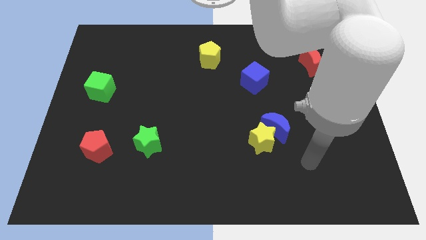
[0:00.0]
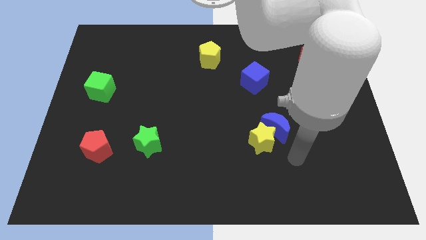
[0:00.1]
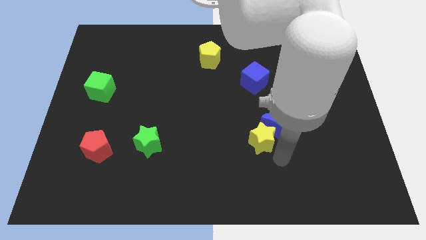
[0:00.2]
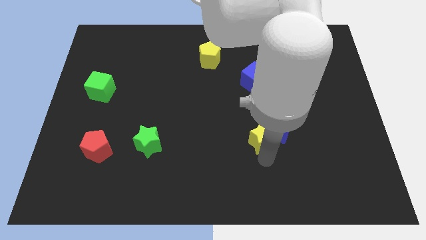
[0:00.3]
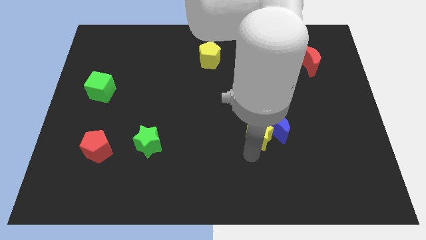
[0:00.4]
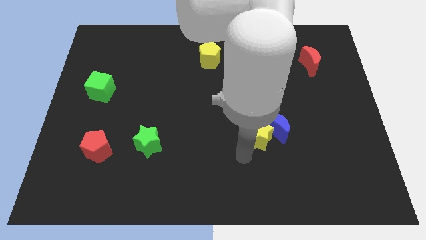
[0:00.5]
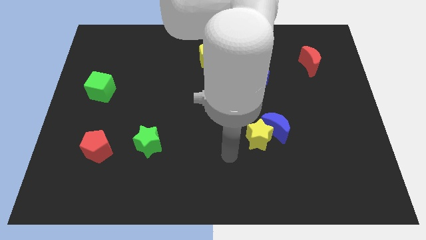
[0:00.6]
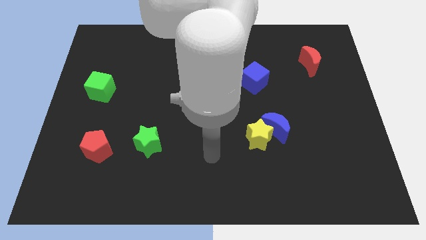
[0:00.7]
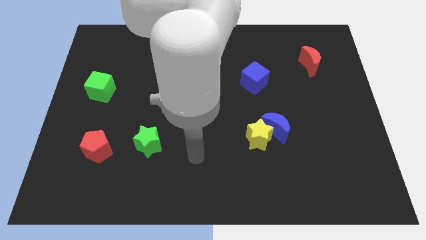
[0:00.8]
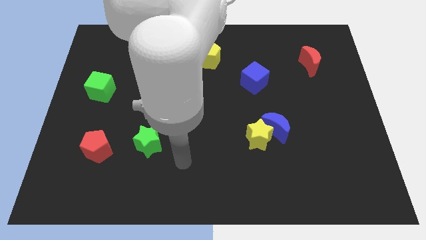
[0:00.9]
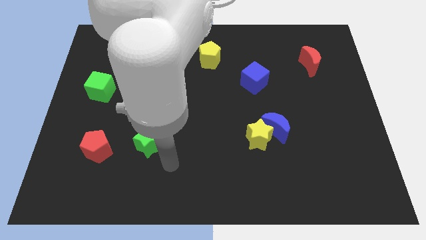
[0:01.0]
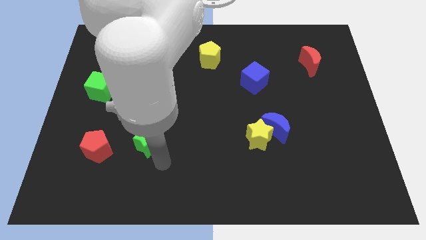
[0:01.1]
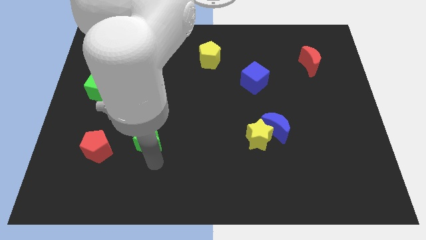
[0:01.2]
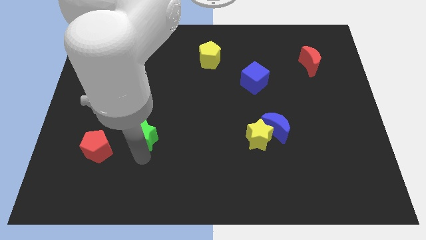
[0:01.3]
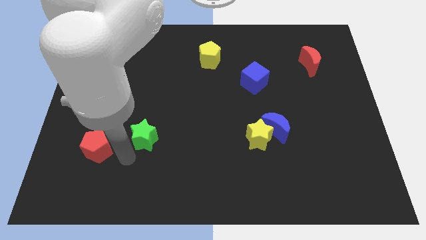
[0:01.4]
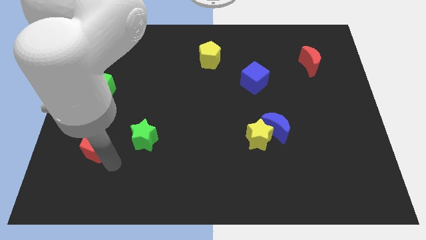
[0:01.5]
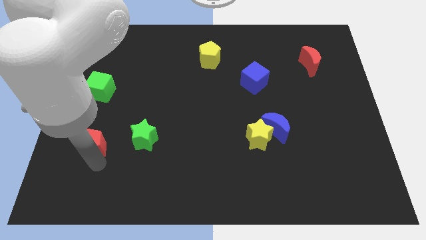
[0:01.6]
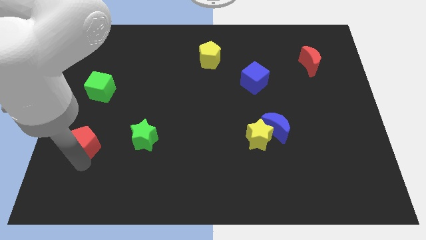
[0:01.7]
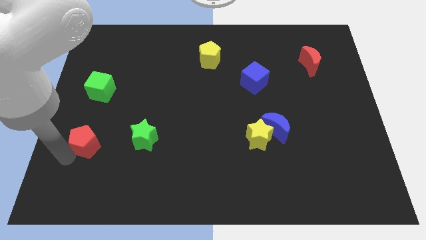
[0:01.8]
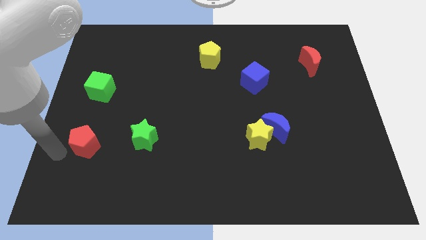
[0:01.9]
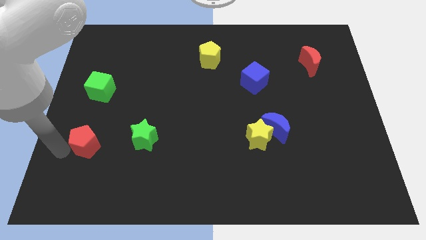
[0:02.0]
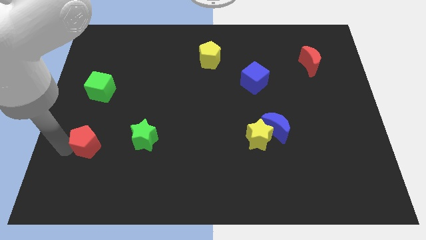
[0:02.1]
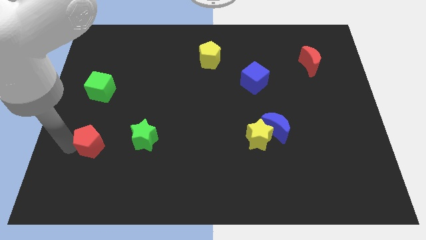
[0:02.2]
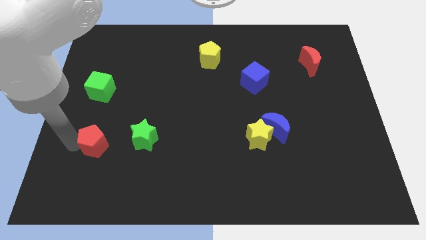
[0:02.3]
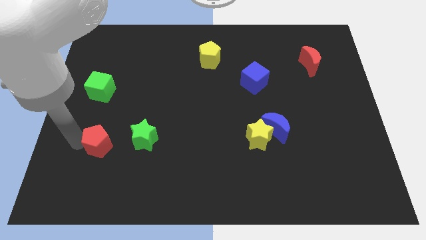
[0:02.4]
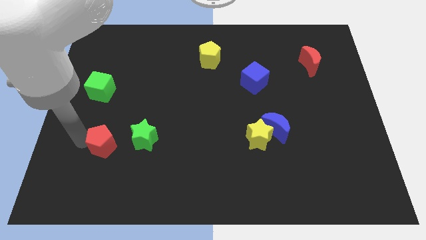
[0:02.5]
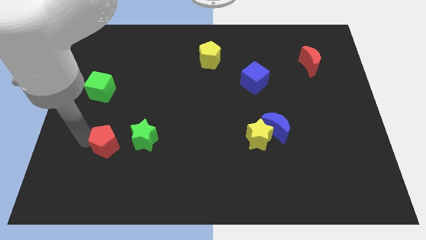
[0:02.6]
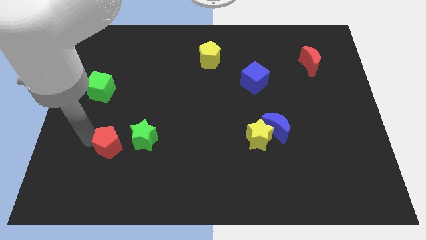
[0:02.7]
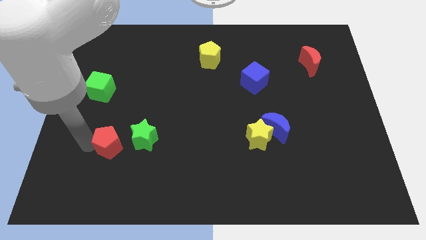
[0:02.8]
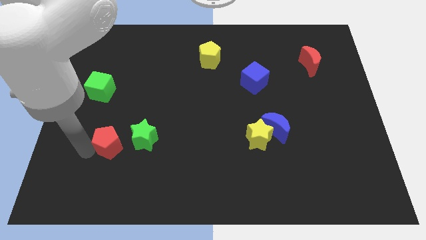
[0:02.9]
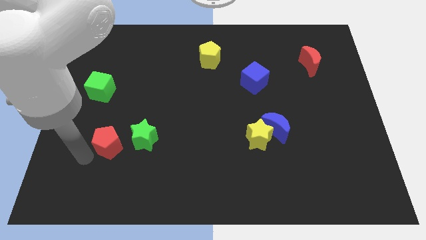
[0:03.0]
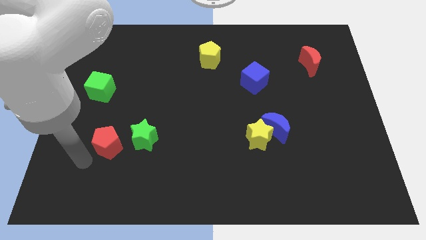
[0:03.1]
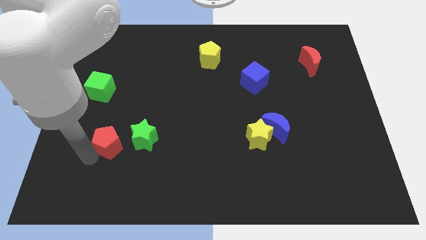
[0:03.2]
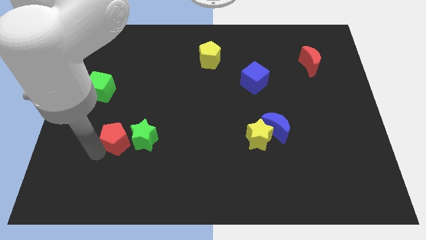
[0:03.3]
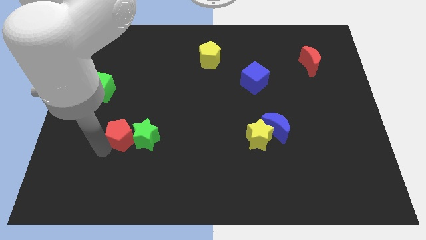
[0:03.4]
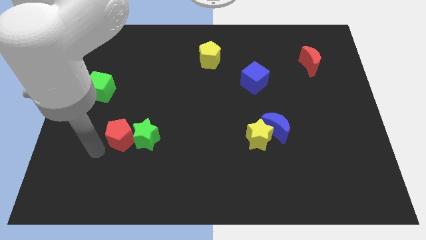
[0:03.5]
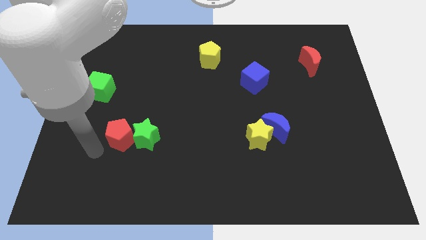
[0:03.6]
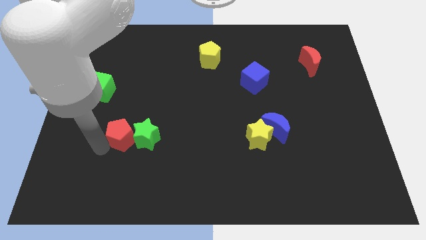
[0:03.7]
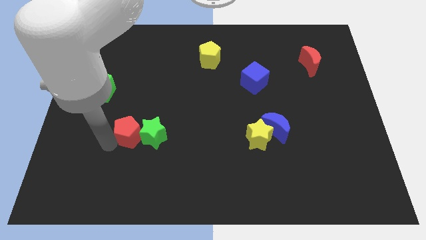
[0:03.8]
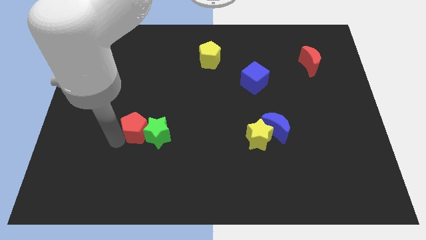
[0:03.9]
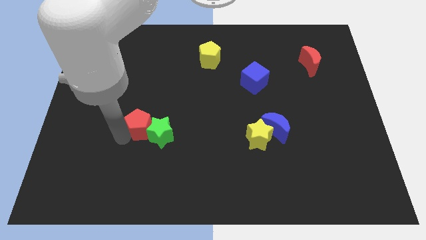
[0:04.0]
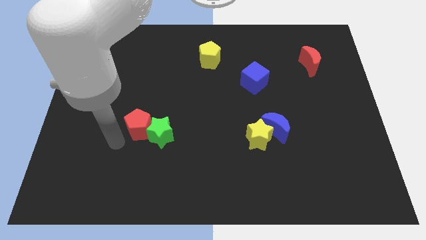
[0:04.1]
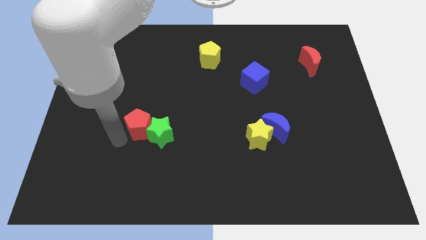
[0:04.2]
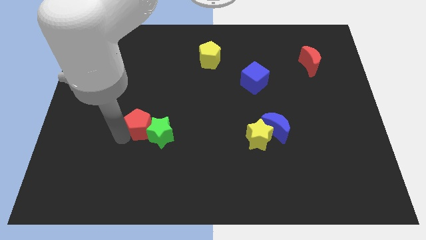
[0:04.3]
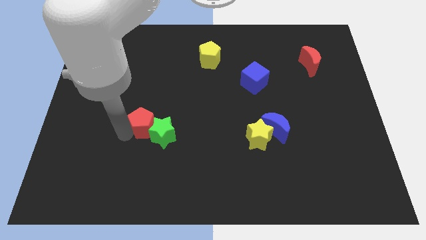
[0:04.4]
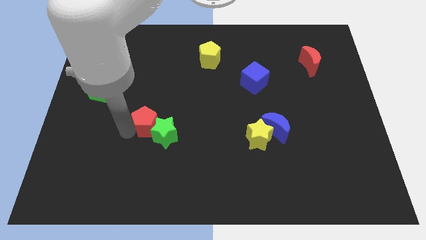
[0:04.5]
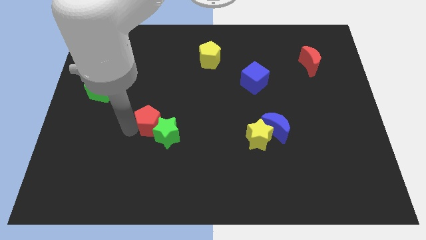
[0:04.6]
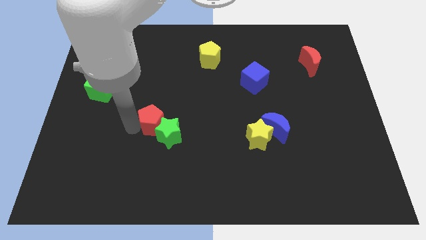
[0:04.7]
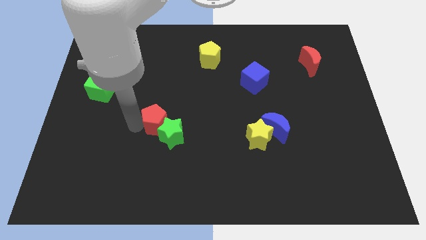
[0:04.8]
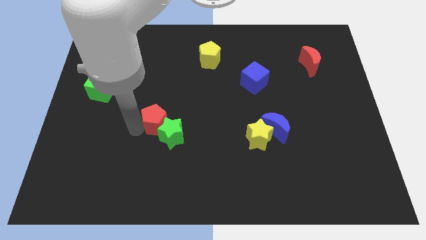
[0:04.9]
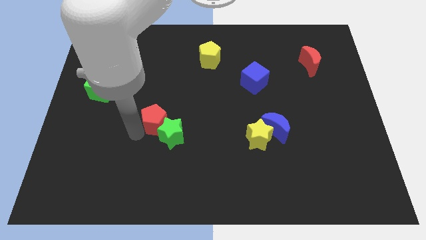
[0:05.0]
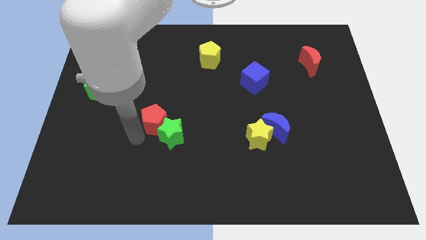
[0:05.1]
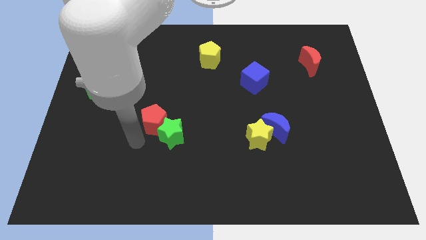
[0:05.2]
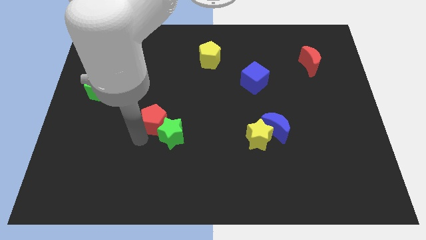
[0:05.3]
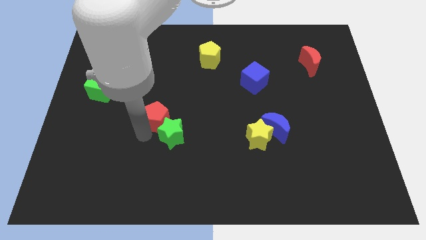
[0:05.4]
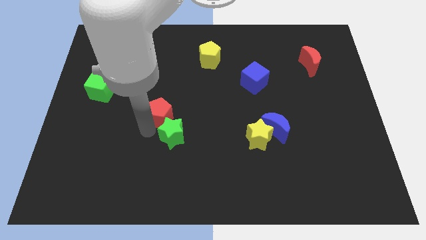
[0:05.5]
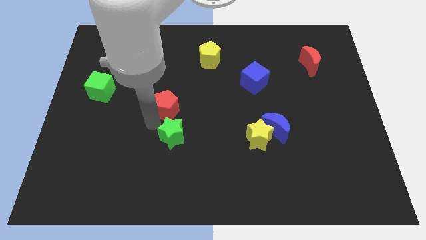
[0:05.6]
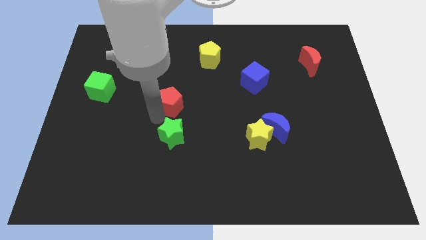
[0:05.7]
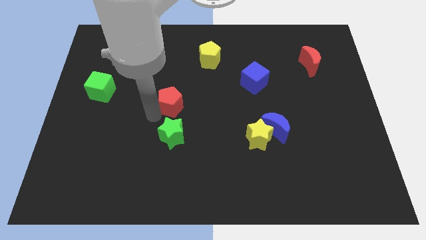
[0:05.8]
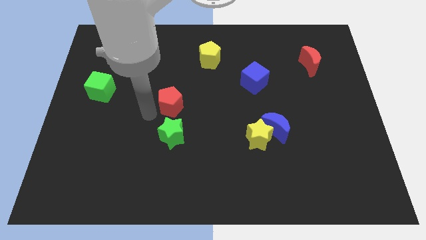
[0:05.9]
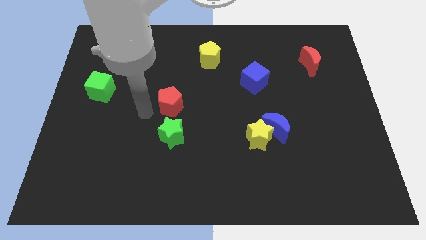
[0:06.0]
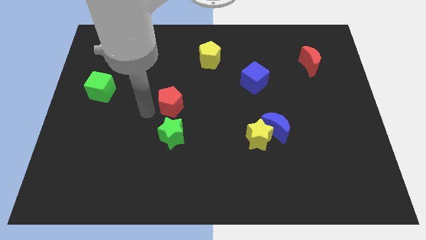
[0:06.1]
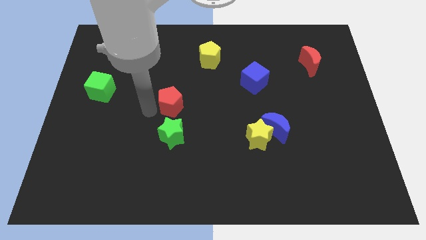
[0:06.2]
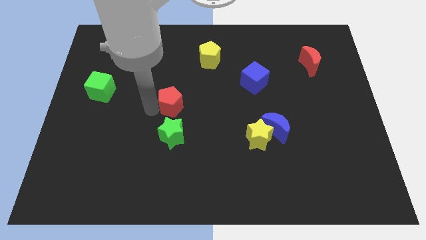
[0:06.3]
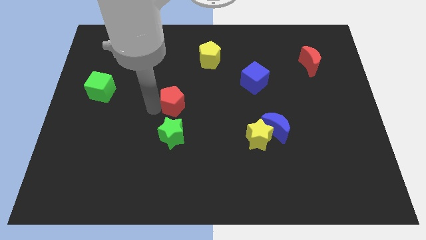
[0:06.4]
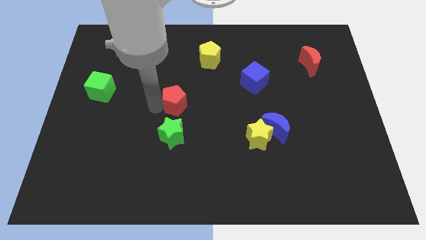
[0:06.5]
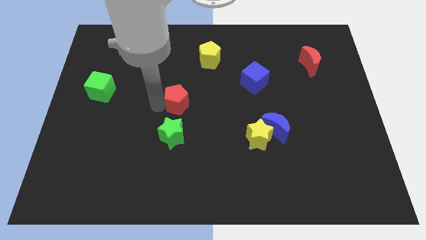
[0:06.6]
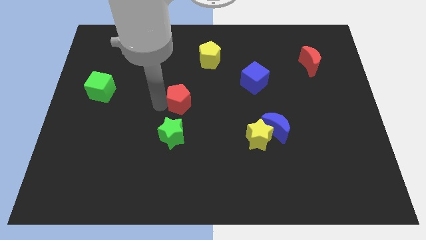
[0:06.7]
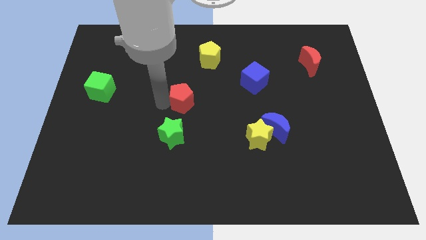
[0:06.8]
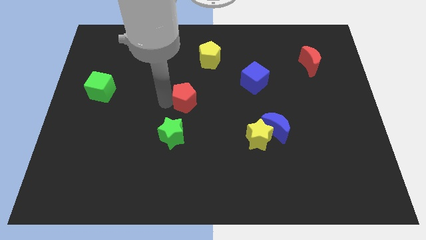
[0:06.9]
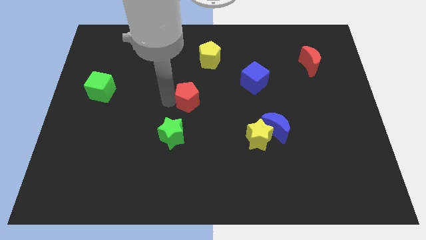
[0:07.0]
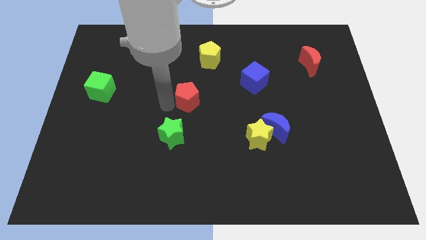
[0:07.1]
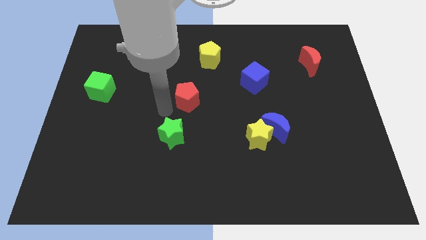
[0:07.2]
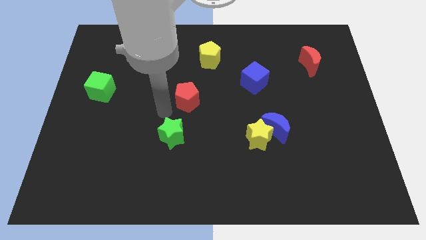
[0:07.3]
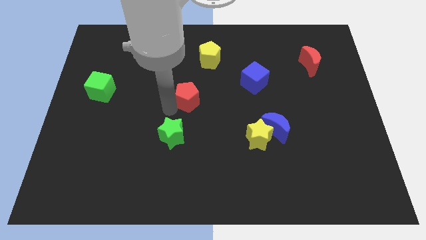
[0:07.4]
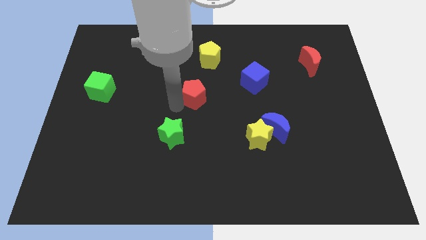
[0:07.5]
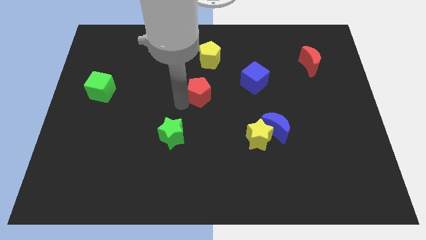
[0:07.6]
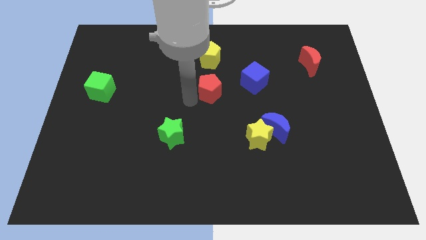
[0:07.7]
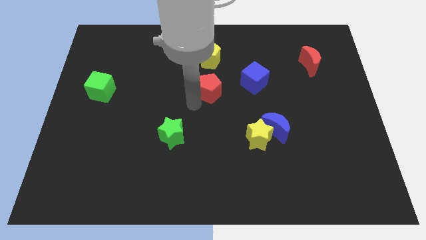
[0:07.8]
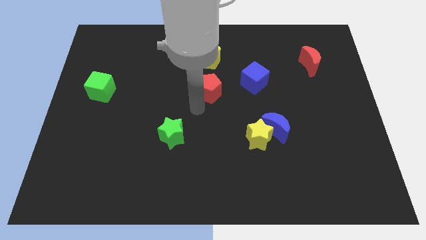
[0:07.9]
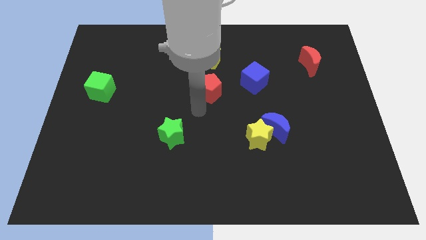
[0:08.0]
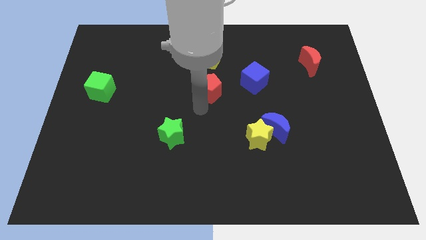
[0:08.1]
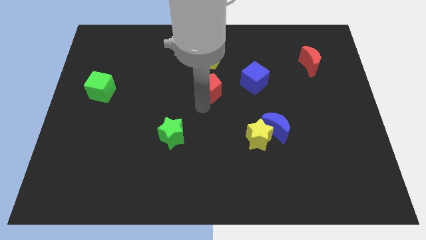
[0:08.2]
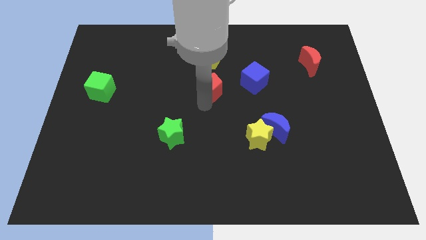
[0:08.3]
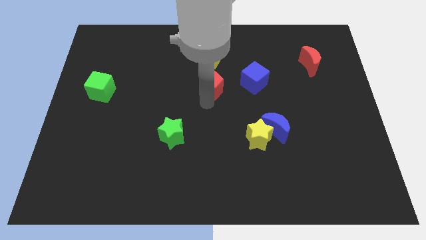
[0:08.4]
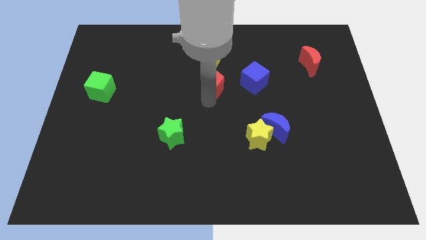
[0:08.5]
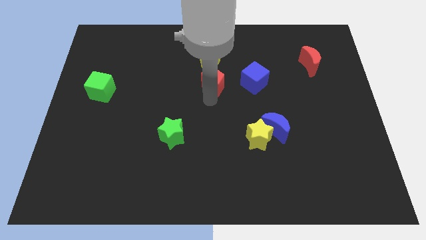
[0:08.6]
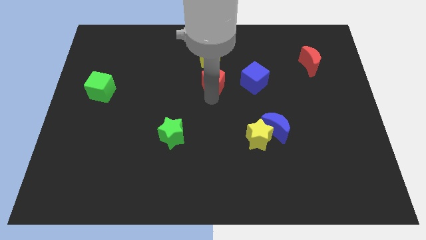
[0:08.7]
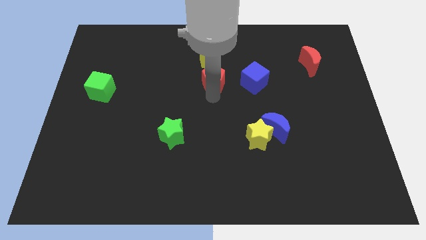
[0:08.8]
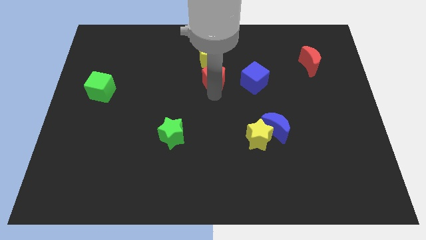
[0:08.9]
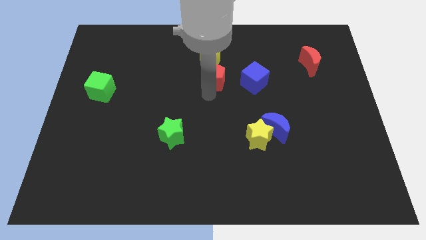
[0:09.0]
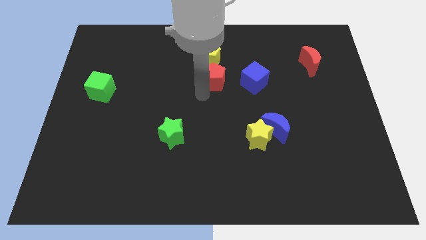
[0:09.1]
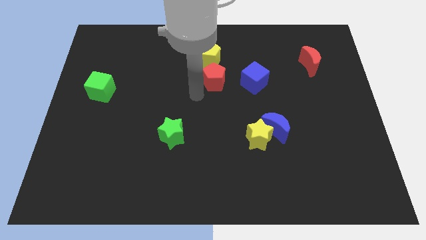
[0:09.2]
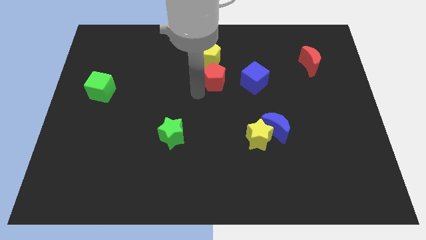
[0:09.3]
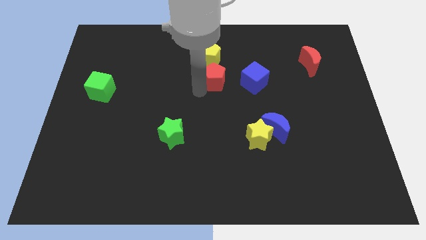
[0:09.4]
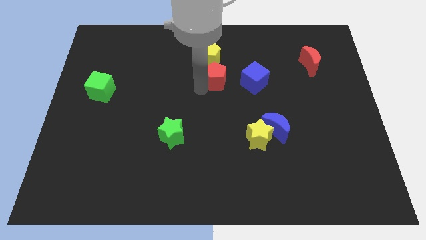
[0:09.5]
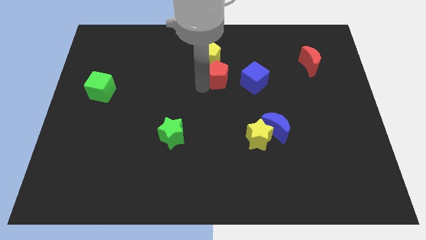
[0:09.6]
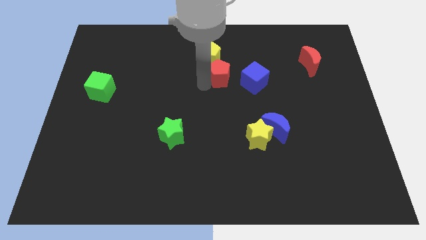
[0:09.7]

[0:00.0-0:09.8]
slide the red pentagon to the top left side of the blue cube
